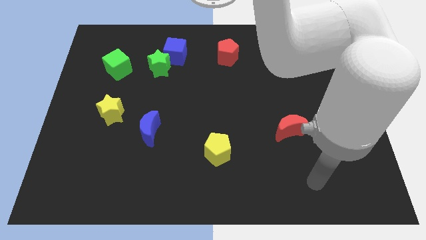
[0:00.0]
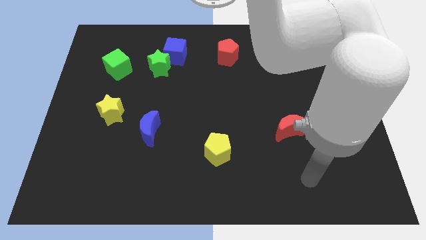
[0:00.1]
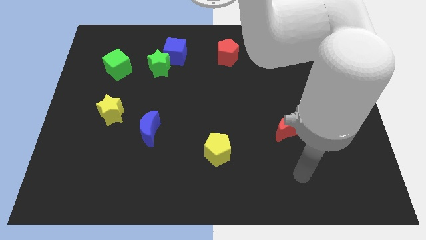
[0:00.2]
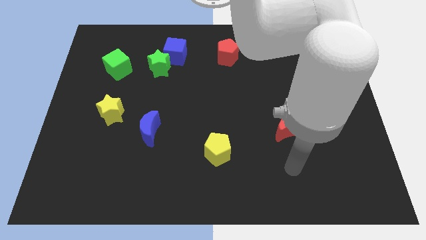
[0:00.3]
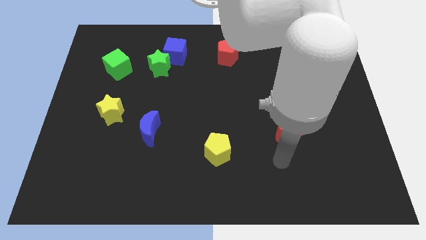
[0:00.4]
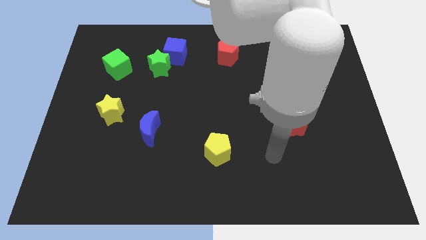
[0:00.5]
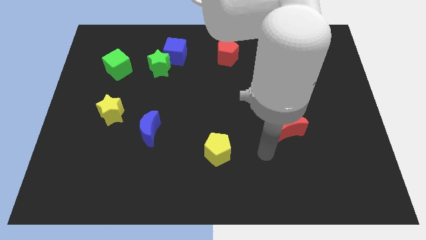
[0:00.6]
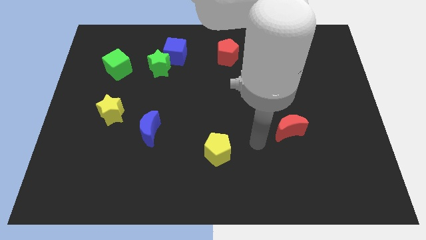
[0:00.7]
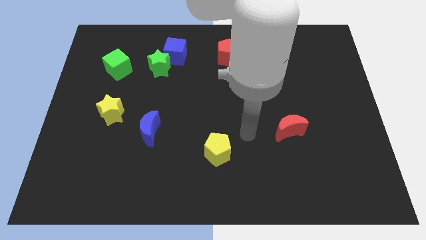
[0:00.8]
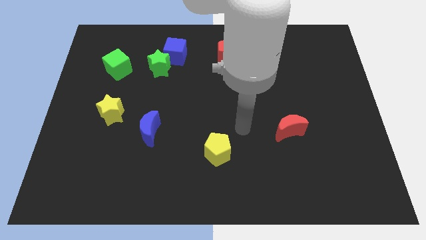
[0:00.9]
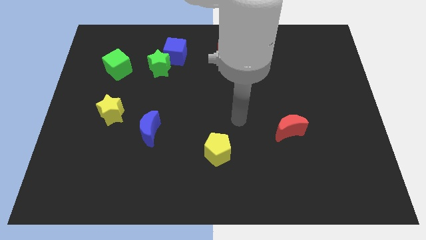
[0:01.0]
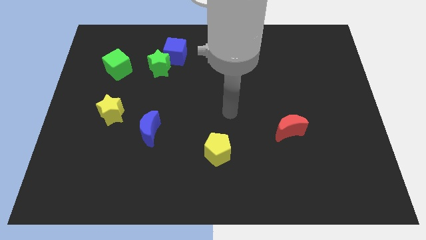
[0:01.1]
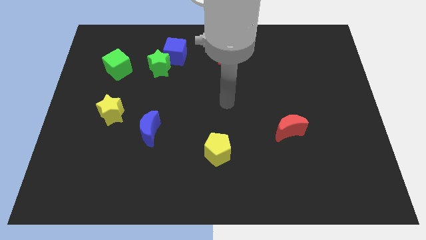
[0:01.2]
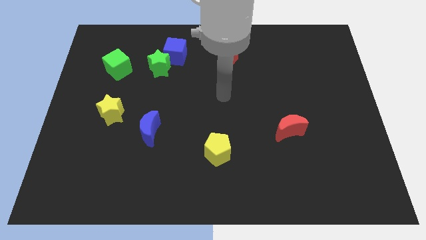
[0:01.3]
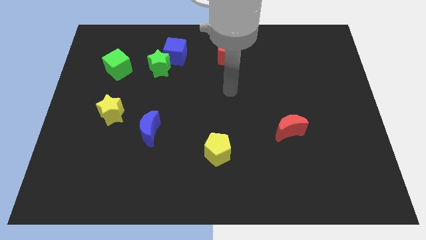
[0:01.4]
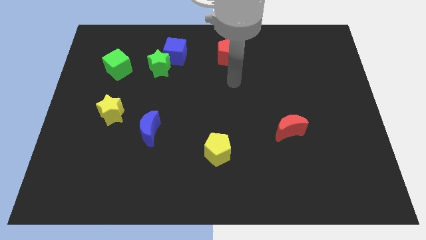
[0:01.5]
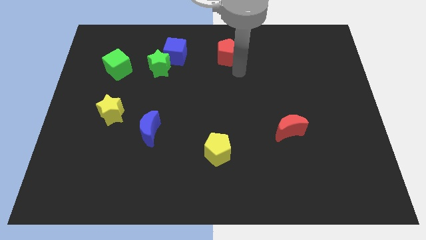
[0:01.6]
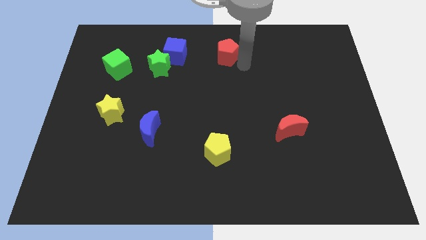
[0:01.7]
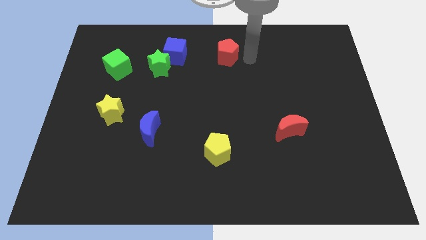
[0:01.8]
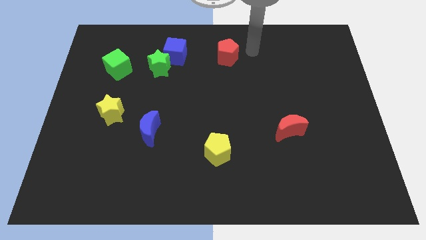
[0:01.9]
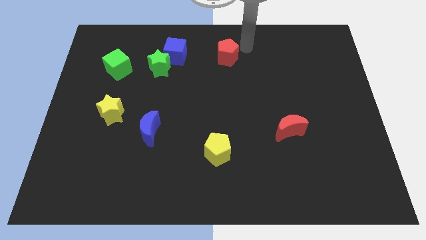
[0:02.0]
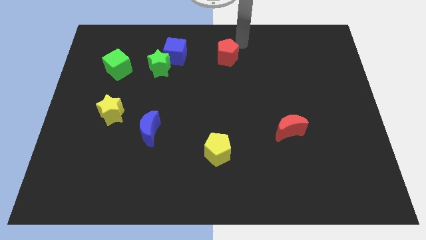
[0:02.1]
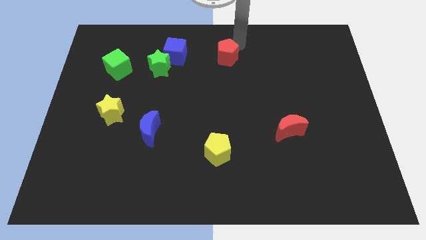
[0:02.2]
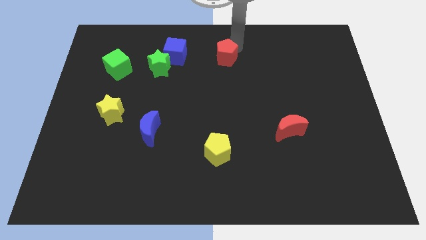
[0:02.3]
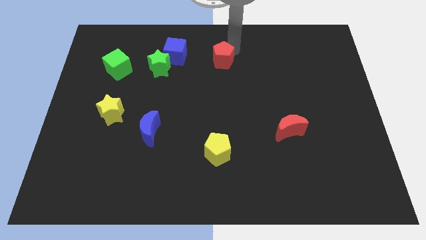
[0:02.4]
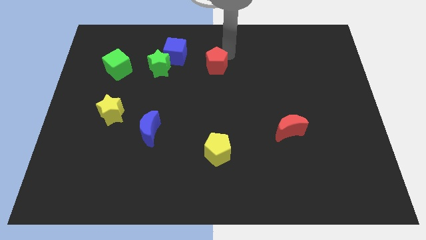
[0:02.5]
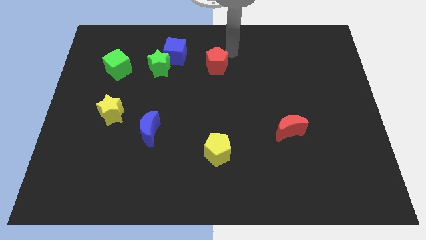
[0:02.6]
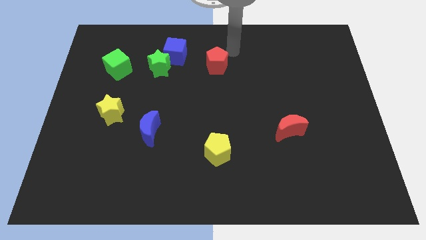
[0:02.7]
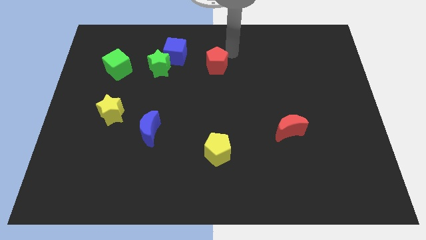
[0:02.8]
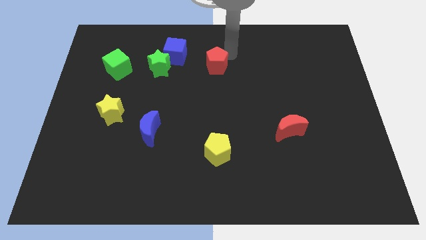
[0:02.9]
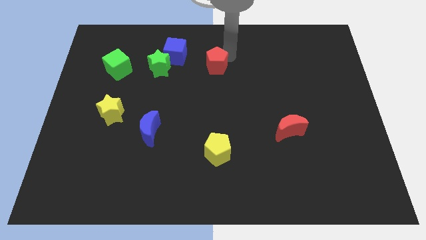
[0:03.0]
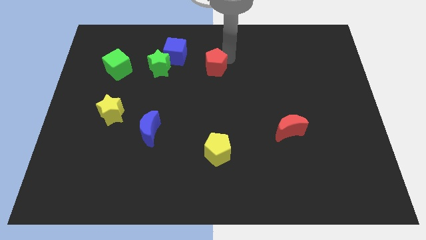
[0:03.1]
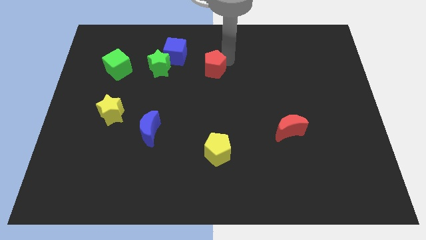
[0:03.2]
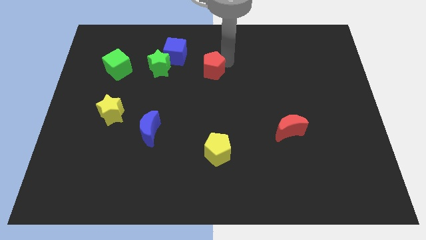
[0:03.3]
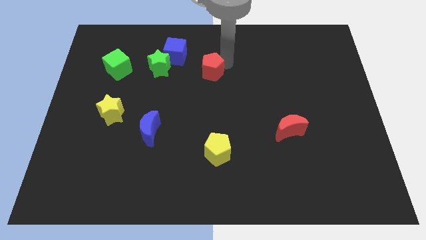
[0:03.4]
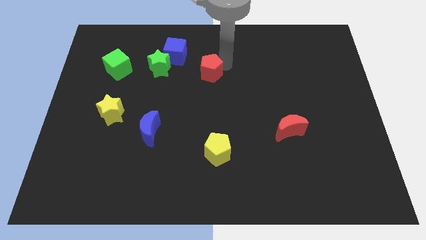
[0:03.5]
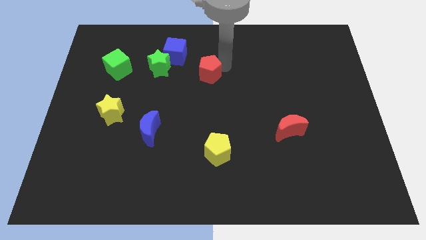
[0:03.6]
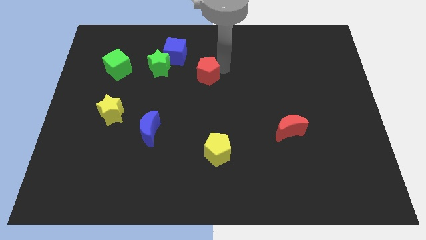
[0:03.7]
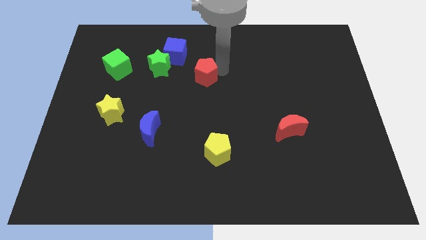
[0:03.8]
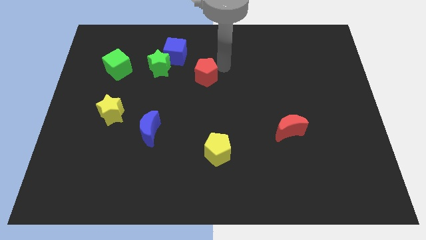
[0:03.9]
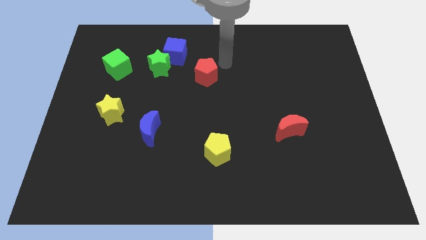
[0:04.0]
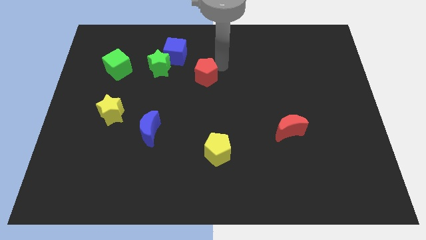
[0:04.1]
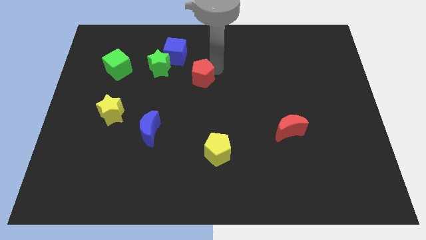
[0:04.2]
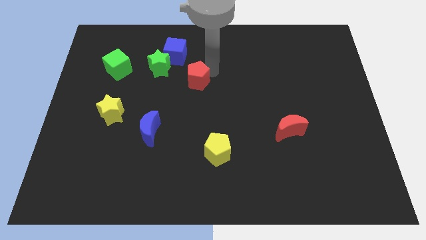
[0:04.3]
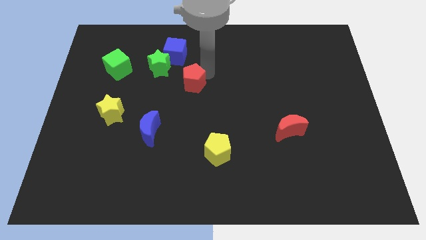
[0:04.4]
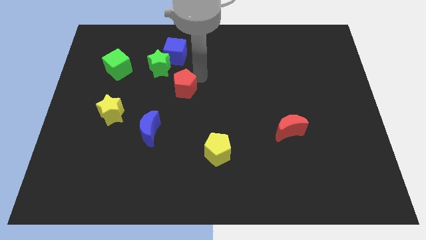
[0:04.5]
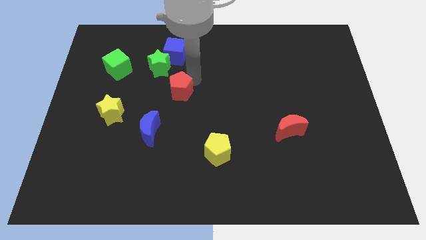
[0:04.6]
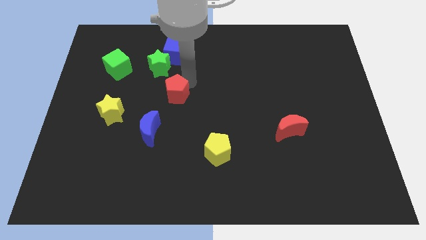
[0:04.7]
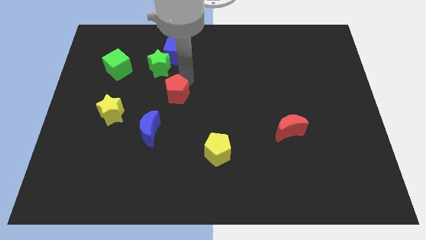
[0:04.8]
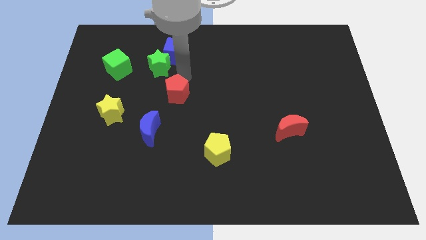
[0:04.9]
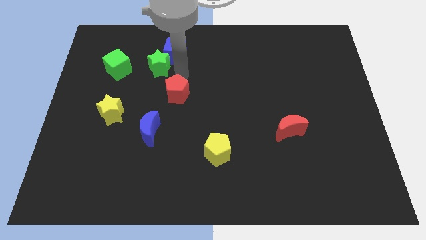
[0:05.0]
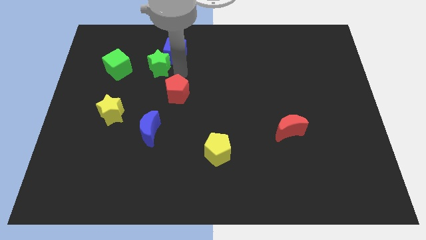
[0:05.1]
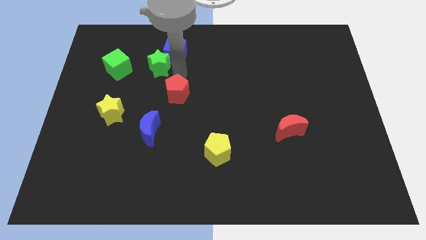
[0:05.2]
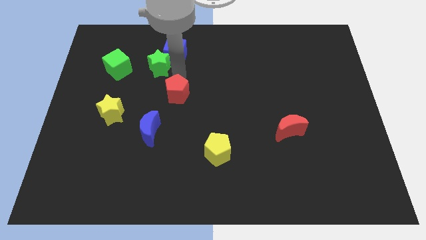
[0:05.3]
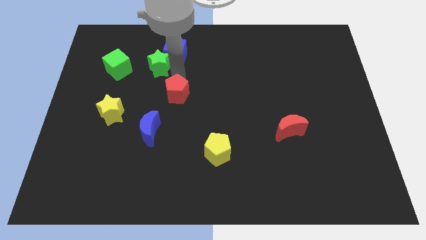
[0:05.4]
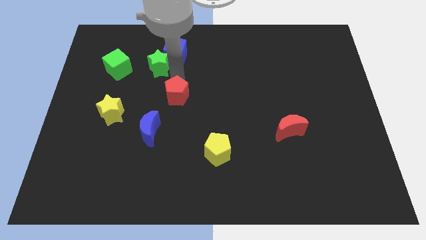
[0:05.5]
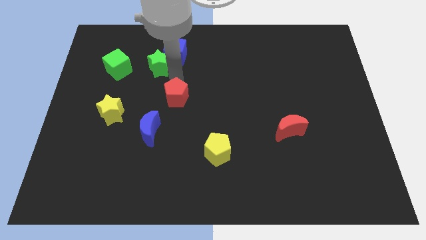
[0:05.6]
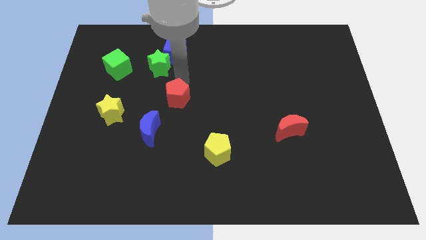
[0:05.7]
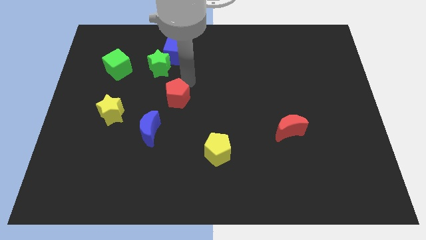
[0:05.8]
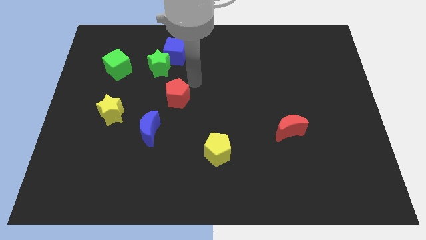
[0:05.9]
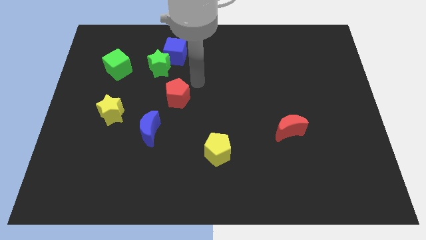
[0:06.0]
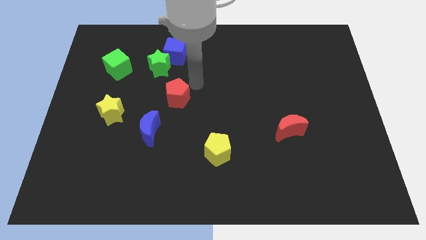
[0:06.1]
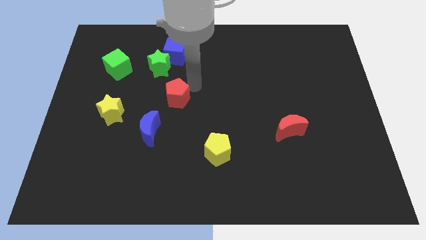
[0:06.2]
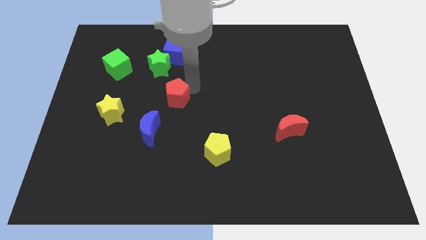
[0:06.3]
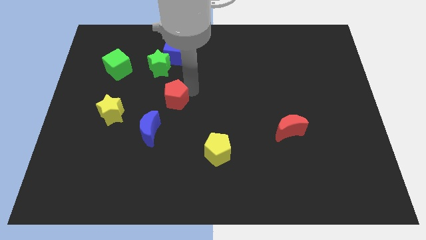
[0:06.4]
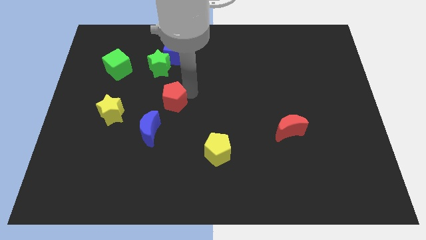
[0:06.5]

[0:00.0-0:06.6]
push the red pentagon to the right side of the yellow star
